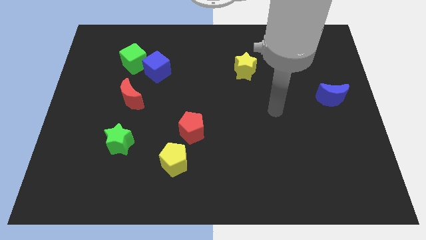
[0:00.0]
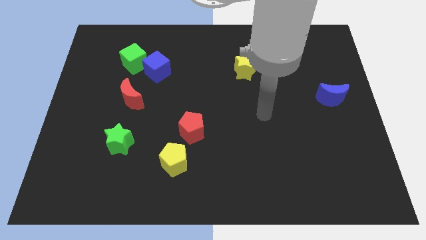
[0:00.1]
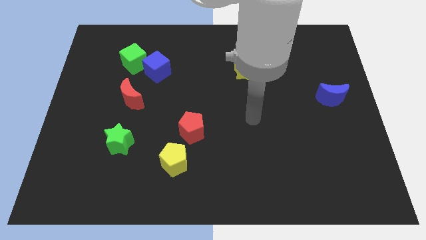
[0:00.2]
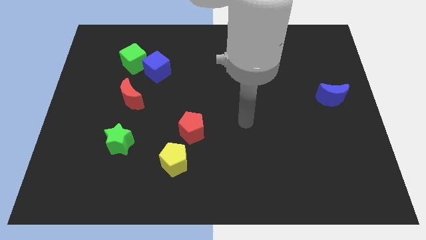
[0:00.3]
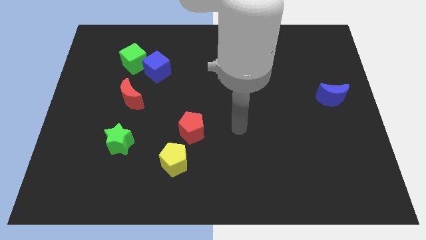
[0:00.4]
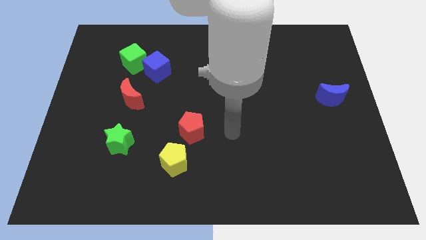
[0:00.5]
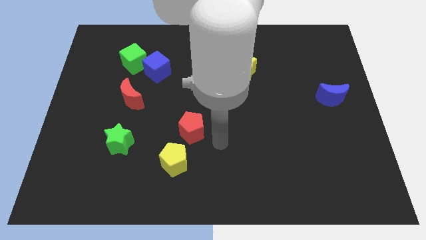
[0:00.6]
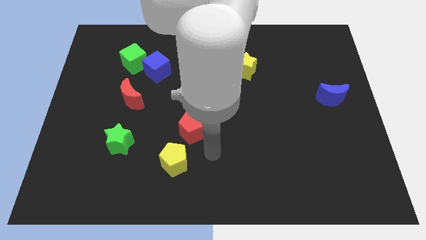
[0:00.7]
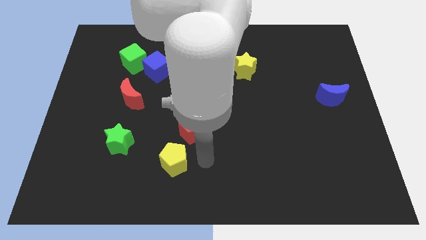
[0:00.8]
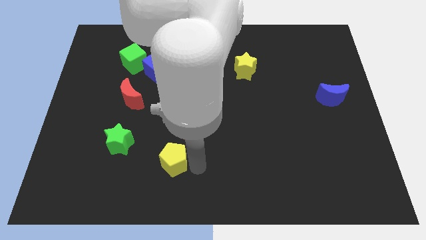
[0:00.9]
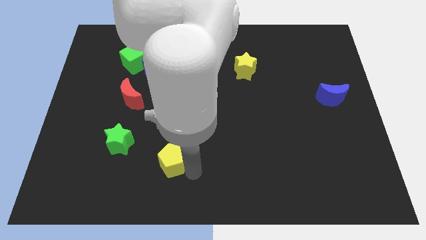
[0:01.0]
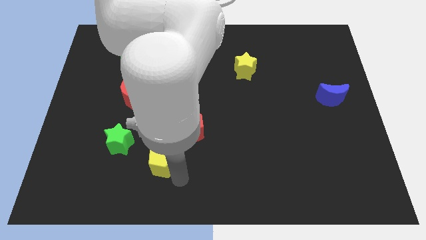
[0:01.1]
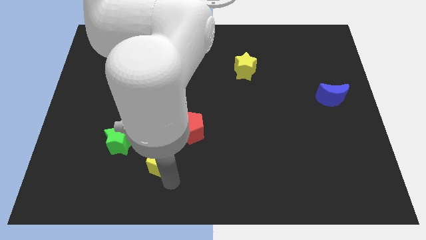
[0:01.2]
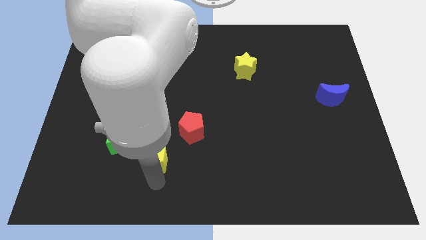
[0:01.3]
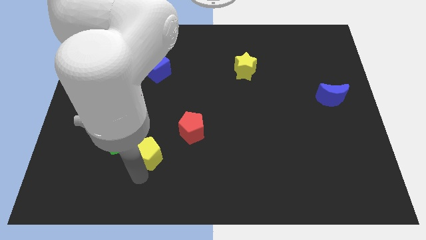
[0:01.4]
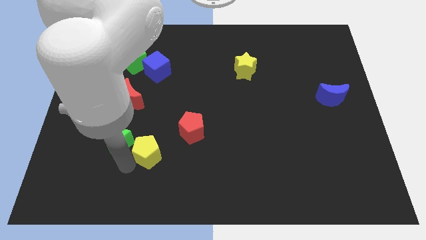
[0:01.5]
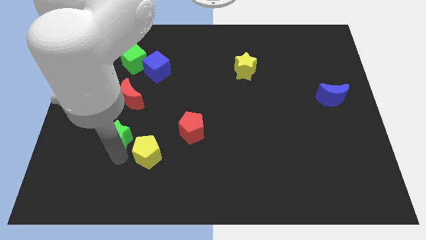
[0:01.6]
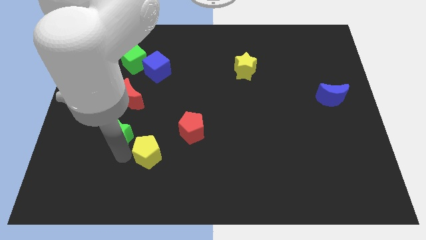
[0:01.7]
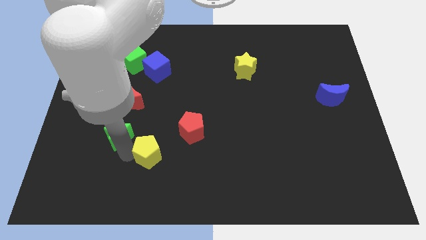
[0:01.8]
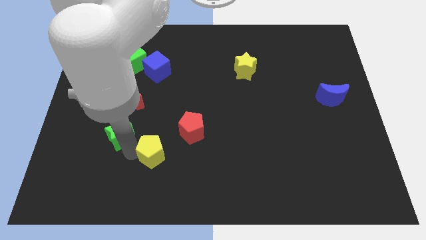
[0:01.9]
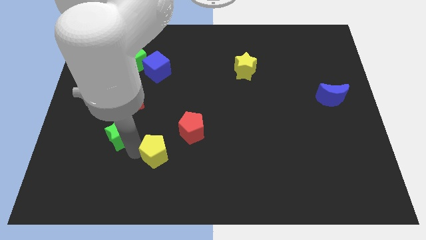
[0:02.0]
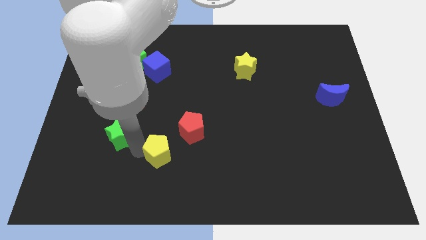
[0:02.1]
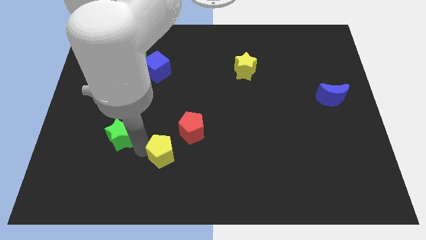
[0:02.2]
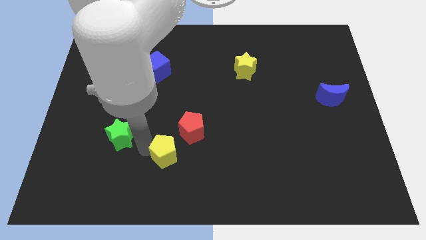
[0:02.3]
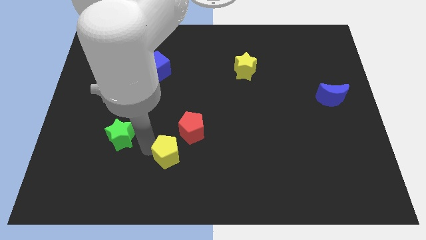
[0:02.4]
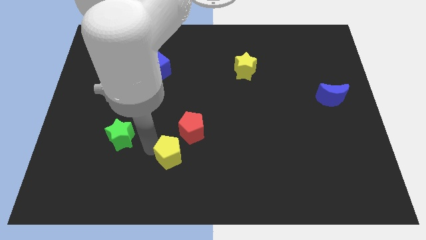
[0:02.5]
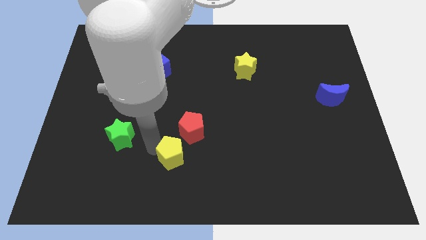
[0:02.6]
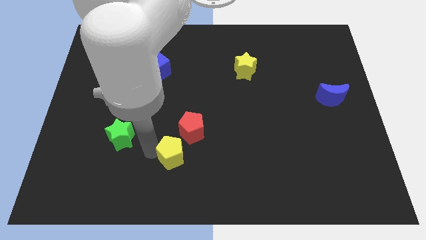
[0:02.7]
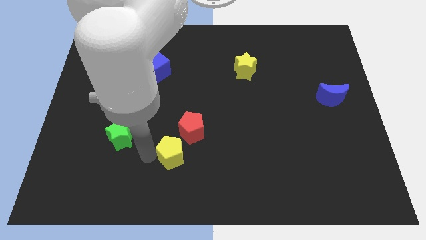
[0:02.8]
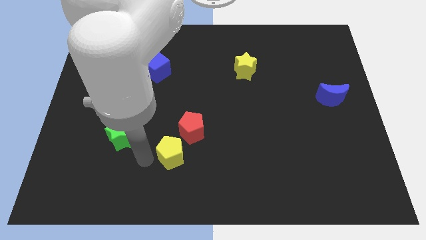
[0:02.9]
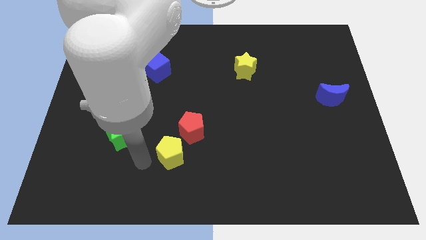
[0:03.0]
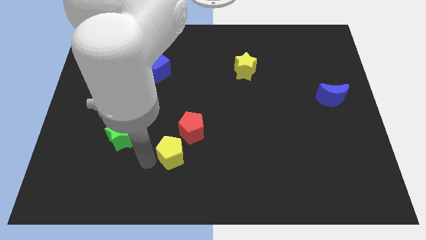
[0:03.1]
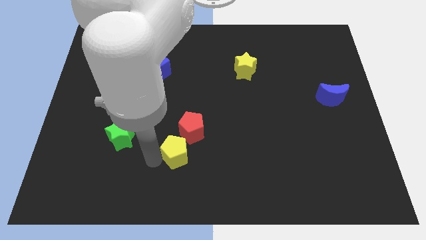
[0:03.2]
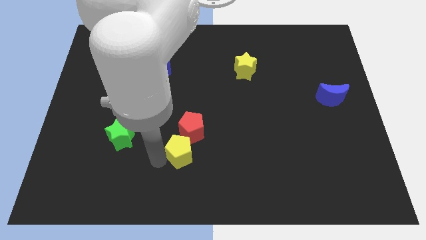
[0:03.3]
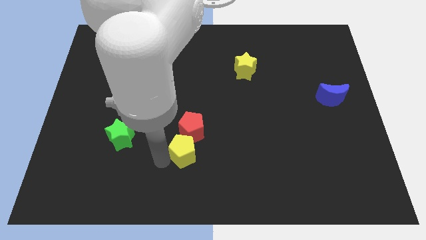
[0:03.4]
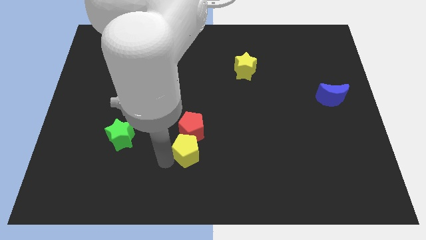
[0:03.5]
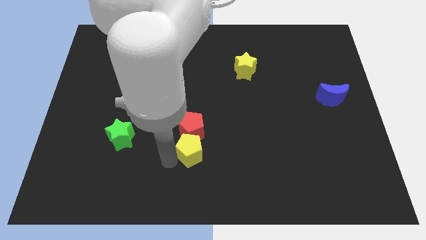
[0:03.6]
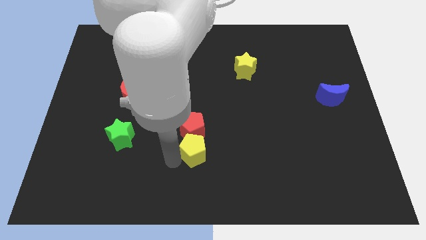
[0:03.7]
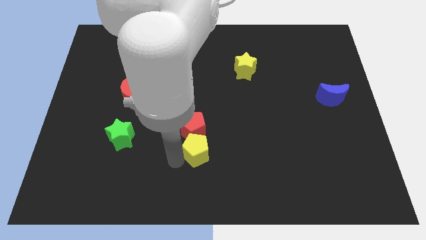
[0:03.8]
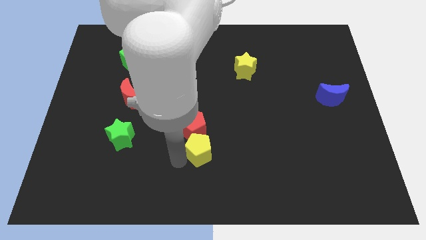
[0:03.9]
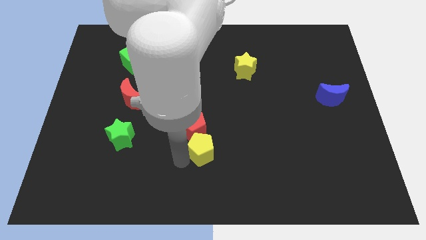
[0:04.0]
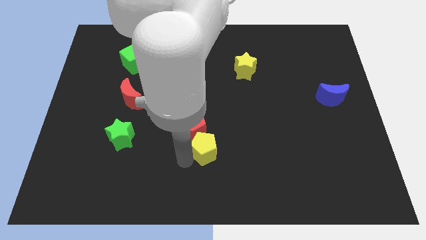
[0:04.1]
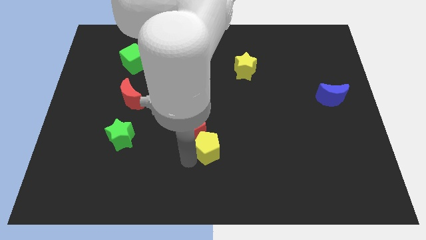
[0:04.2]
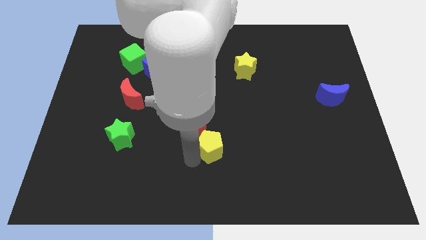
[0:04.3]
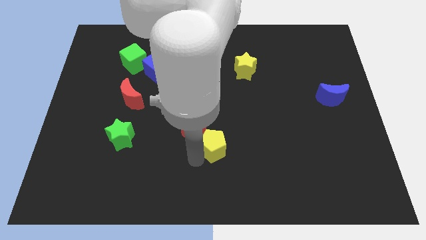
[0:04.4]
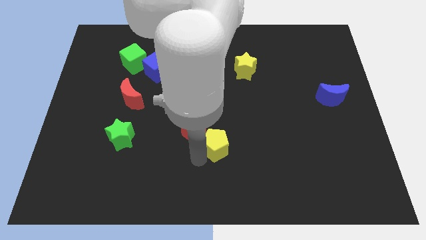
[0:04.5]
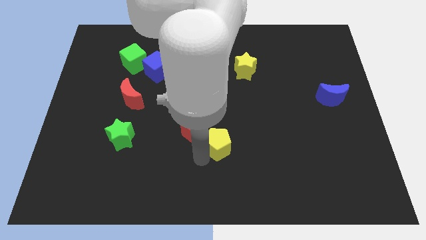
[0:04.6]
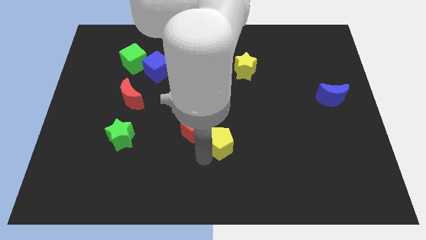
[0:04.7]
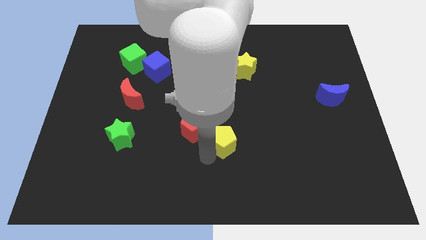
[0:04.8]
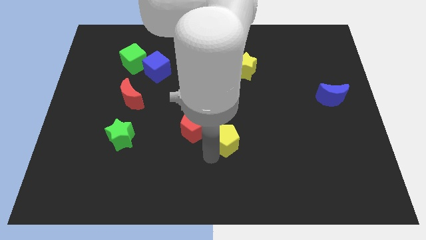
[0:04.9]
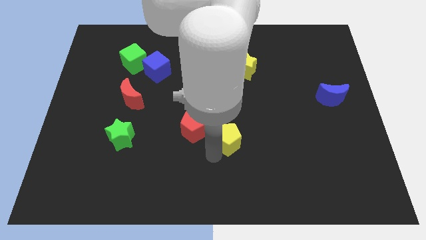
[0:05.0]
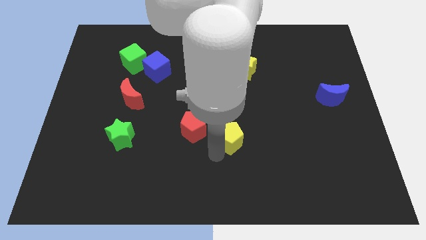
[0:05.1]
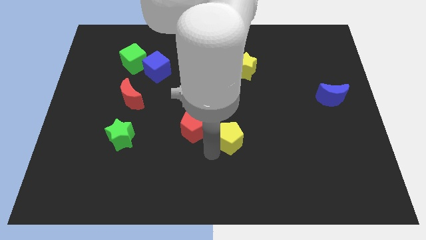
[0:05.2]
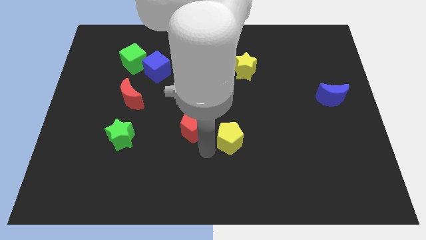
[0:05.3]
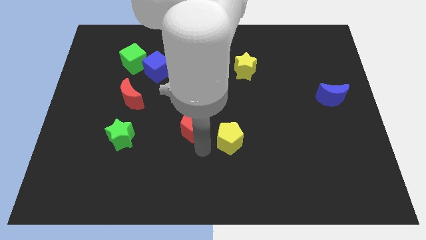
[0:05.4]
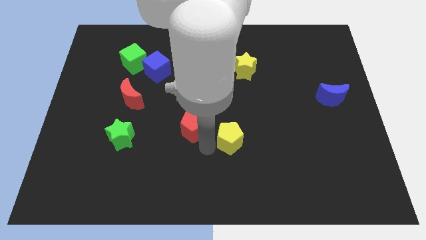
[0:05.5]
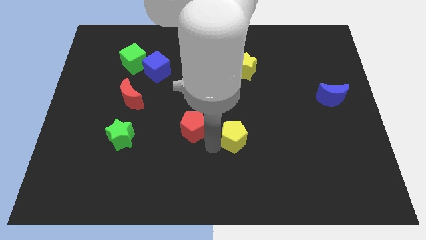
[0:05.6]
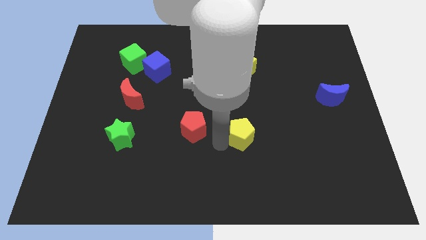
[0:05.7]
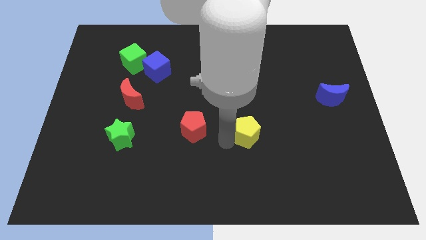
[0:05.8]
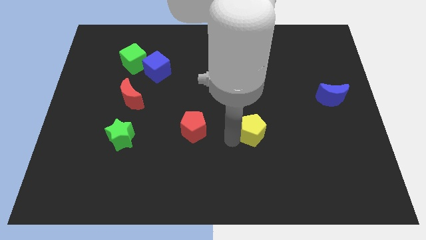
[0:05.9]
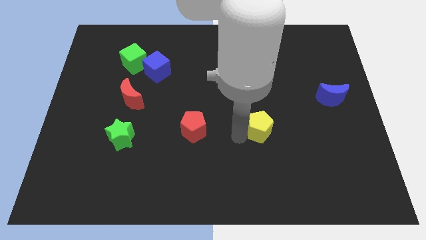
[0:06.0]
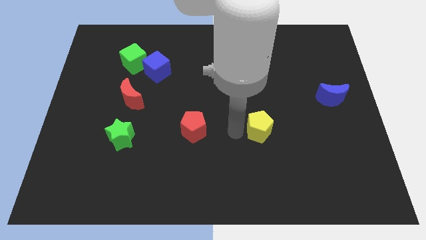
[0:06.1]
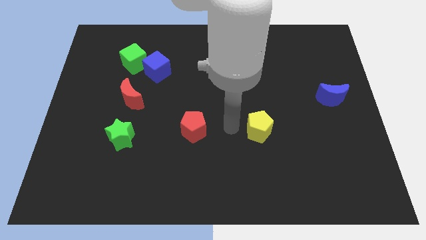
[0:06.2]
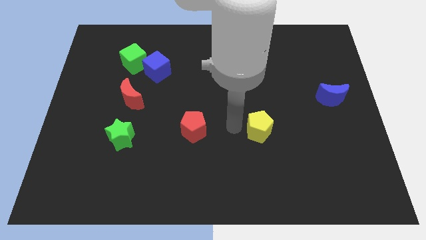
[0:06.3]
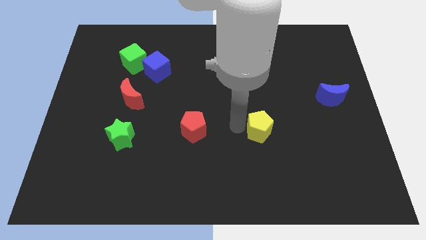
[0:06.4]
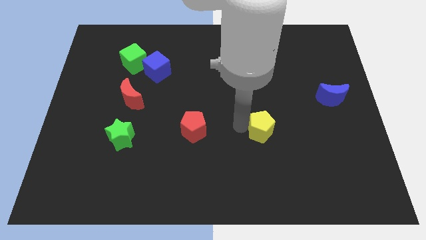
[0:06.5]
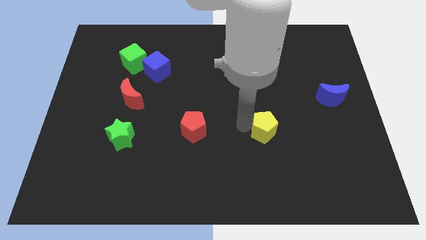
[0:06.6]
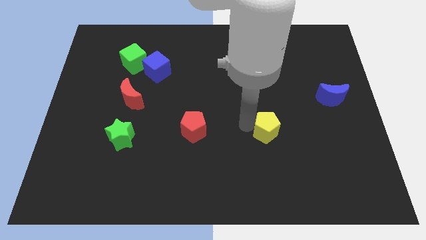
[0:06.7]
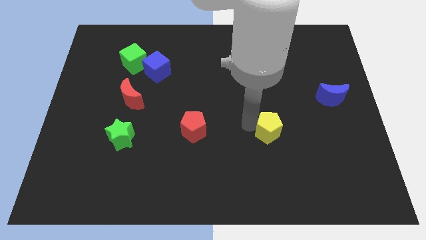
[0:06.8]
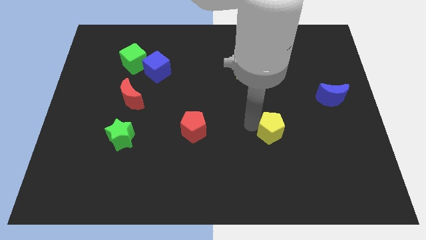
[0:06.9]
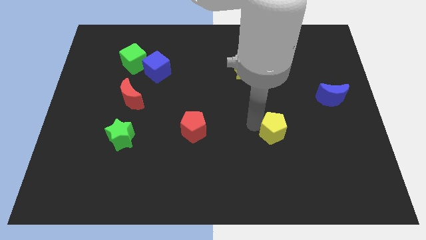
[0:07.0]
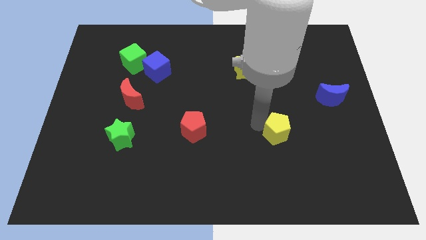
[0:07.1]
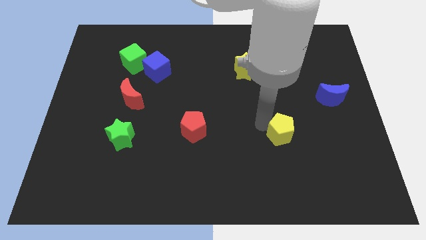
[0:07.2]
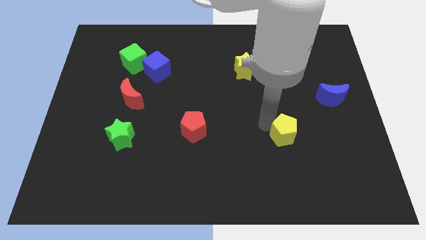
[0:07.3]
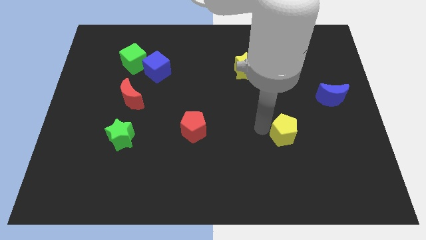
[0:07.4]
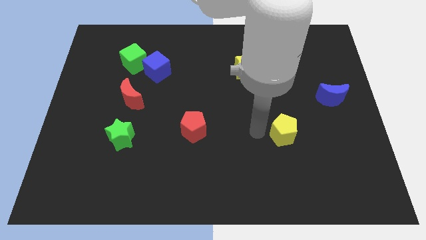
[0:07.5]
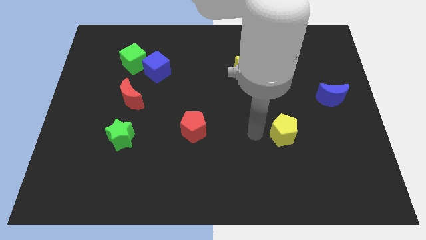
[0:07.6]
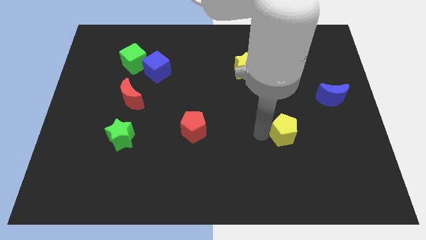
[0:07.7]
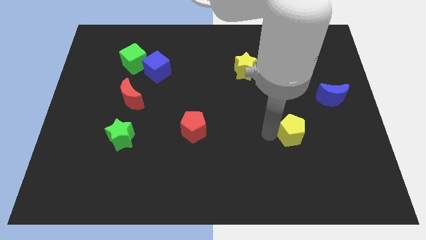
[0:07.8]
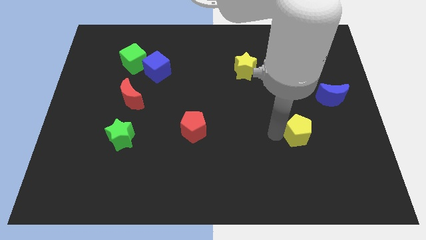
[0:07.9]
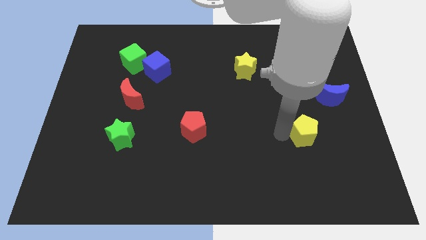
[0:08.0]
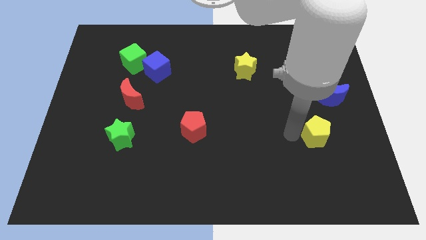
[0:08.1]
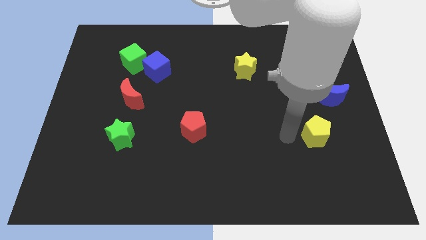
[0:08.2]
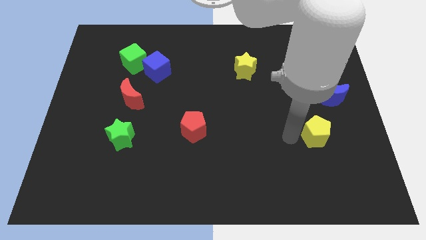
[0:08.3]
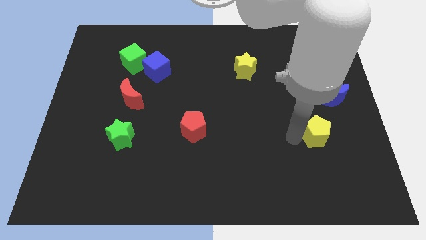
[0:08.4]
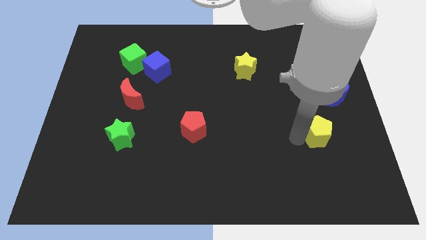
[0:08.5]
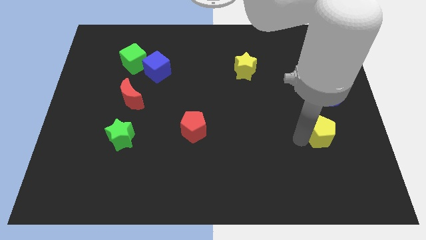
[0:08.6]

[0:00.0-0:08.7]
move the yellow pentagon below the blue moon
